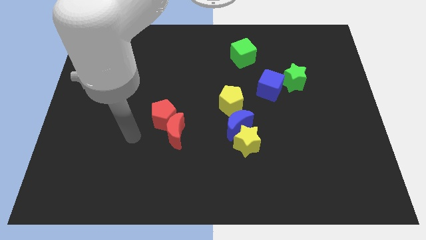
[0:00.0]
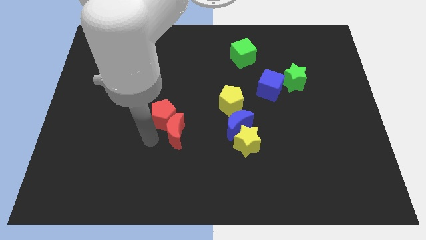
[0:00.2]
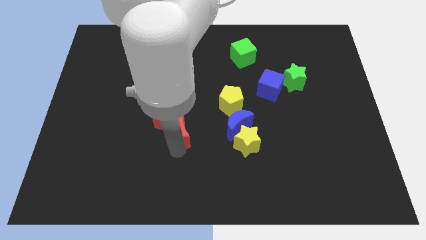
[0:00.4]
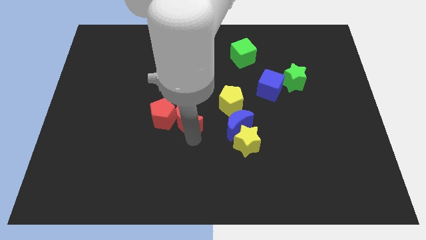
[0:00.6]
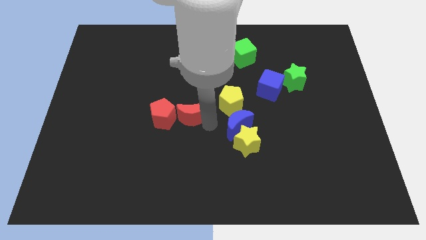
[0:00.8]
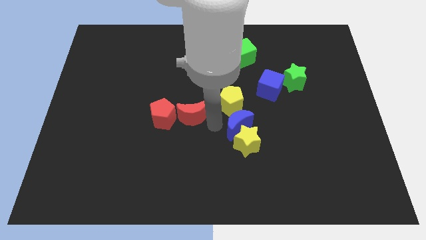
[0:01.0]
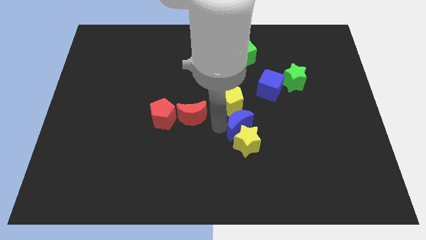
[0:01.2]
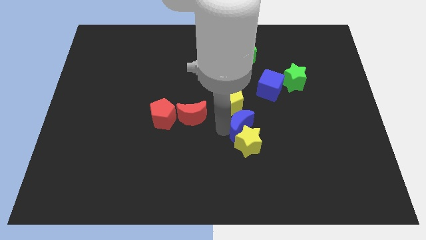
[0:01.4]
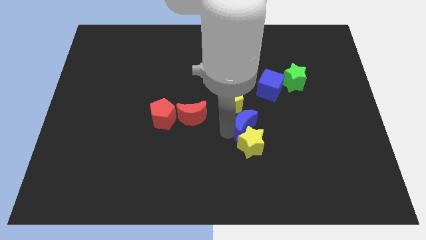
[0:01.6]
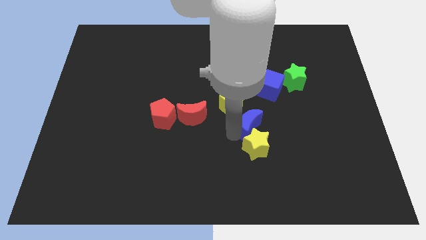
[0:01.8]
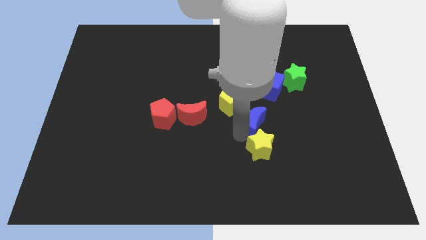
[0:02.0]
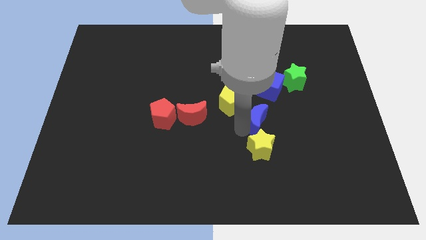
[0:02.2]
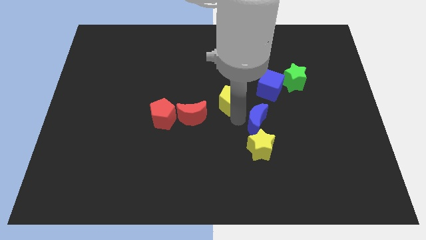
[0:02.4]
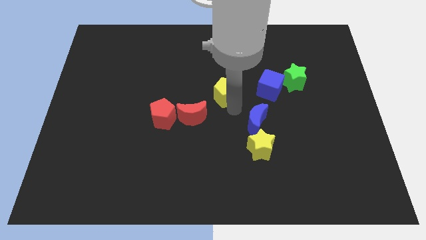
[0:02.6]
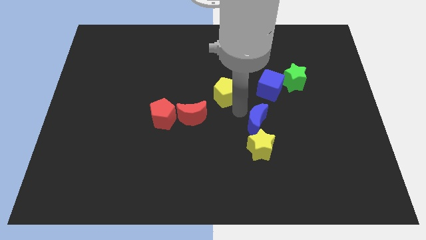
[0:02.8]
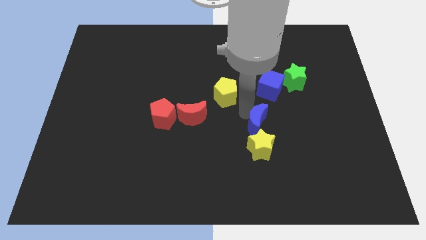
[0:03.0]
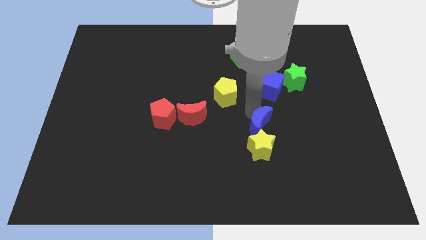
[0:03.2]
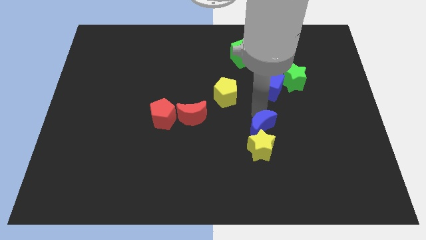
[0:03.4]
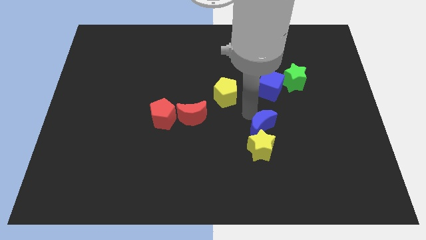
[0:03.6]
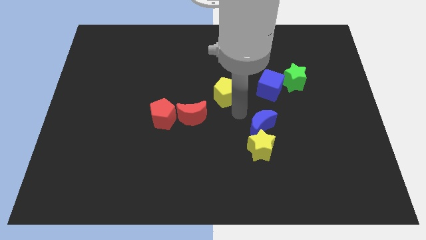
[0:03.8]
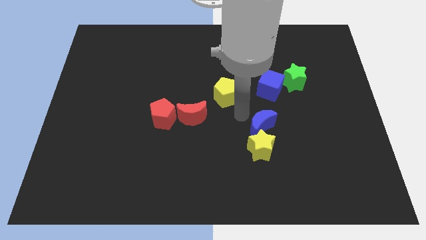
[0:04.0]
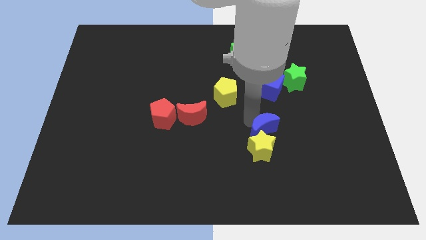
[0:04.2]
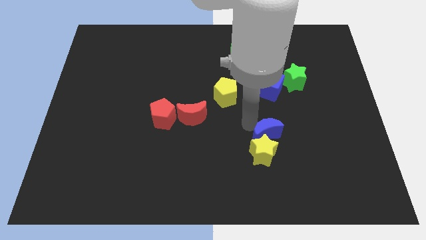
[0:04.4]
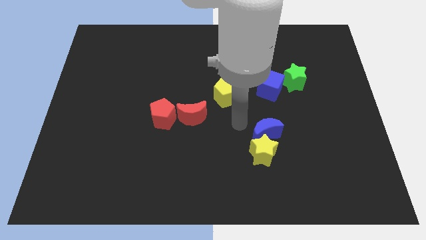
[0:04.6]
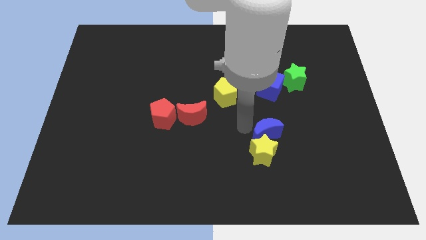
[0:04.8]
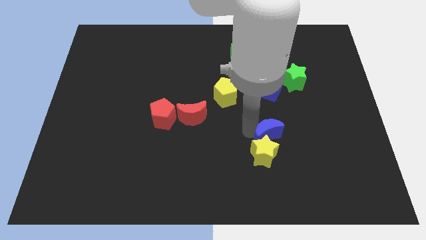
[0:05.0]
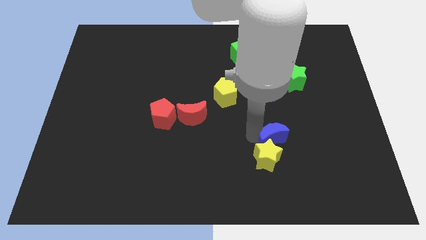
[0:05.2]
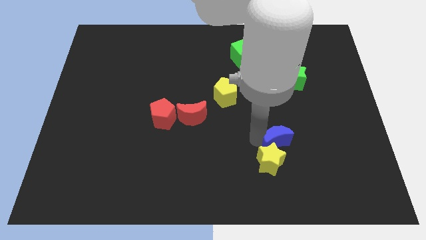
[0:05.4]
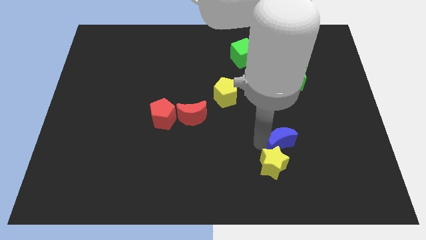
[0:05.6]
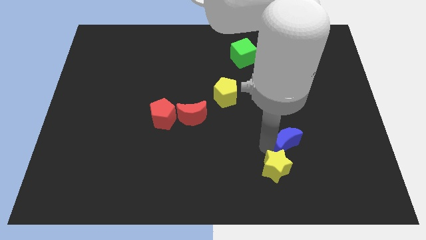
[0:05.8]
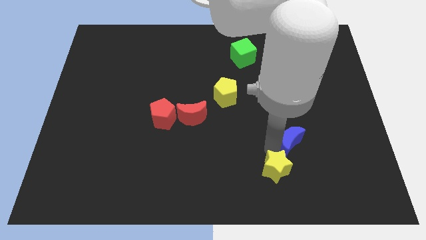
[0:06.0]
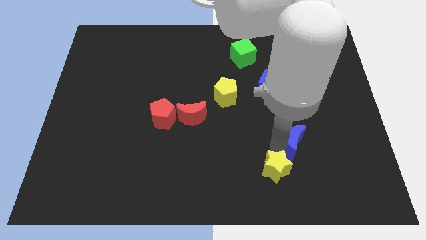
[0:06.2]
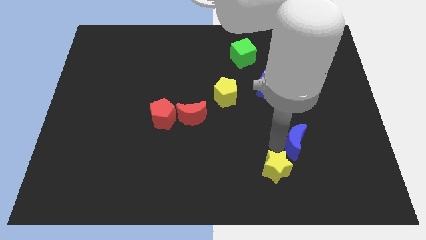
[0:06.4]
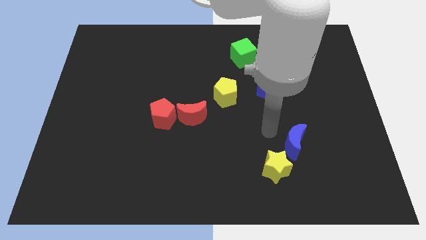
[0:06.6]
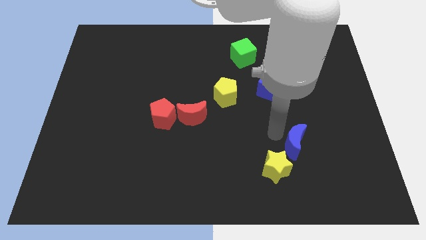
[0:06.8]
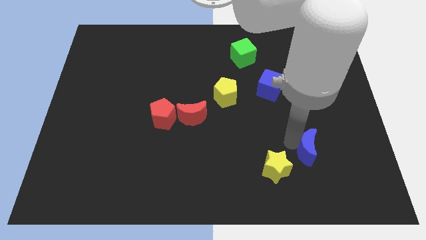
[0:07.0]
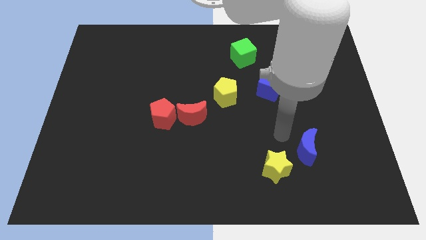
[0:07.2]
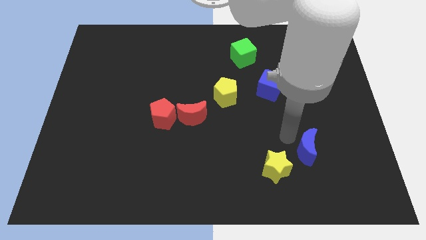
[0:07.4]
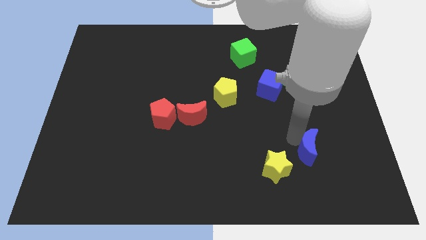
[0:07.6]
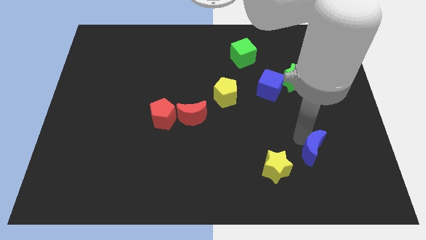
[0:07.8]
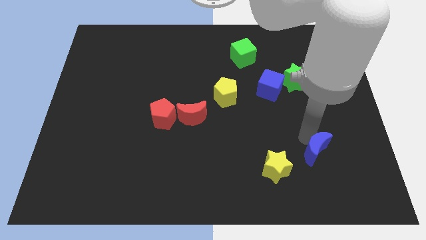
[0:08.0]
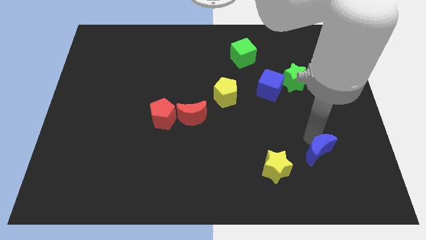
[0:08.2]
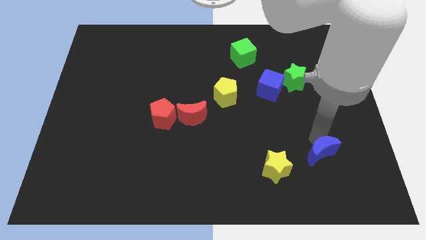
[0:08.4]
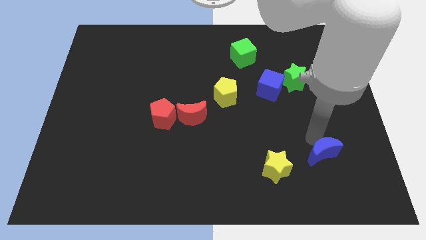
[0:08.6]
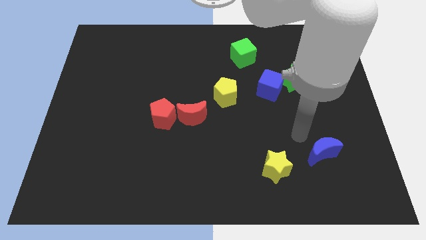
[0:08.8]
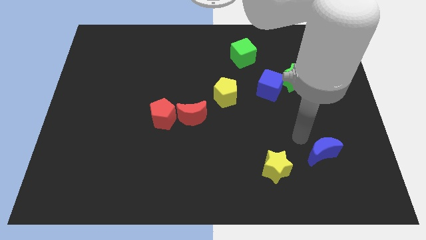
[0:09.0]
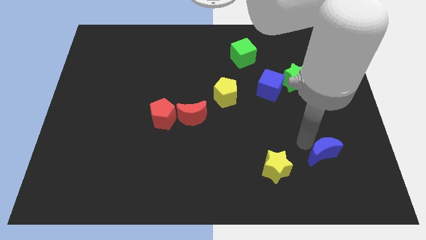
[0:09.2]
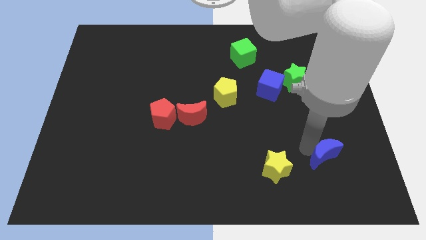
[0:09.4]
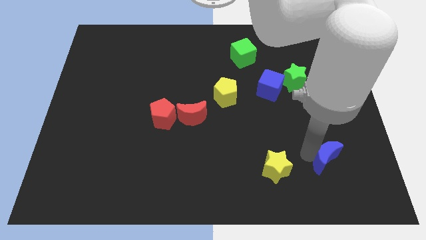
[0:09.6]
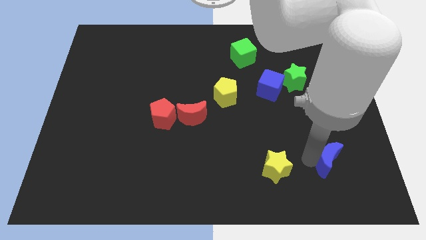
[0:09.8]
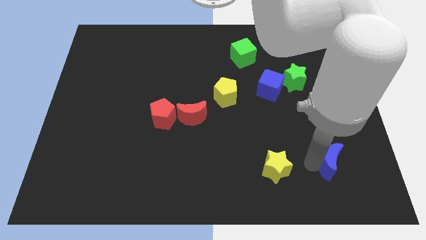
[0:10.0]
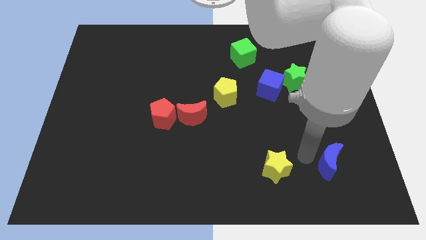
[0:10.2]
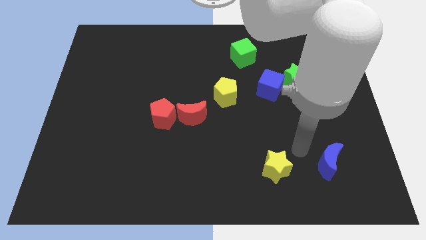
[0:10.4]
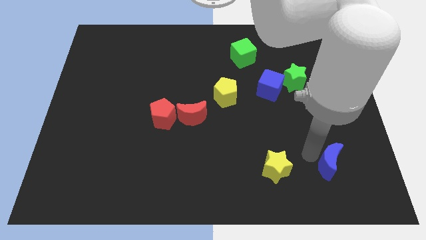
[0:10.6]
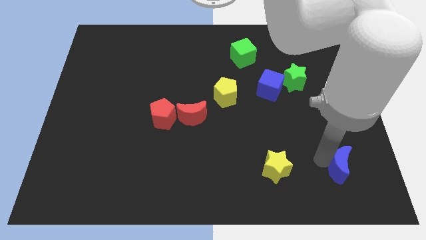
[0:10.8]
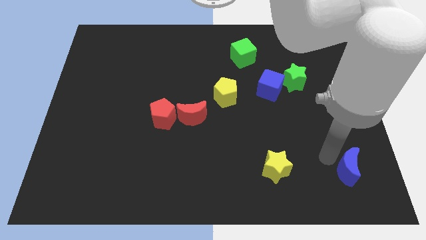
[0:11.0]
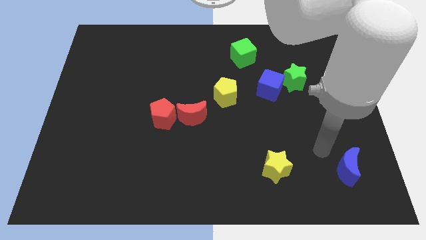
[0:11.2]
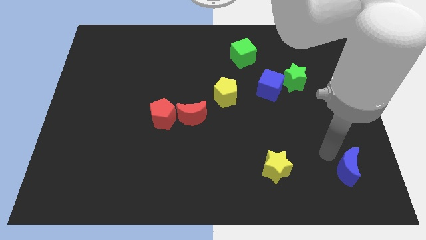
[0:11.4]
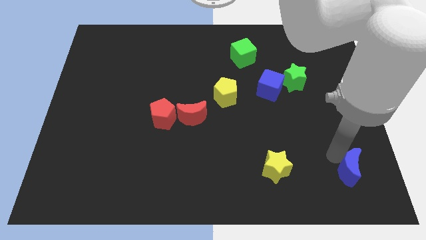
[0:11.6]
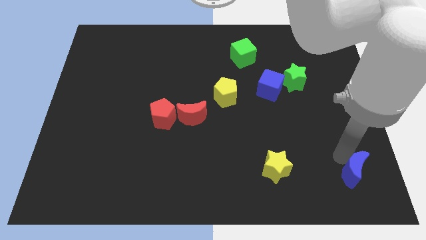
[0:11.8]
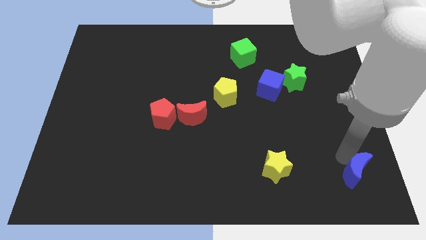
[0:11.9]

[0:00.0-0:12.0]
move the blue moon to the bottom right of the board

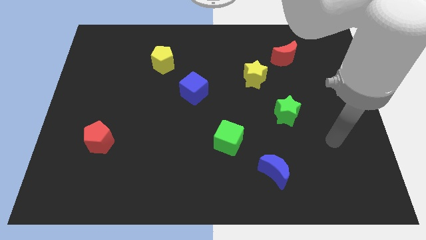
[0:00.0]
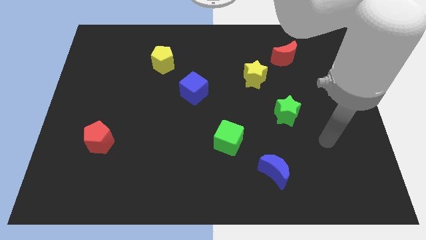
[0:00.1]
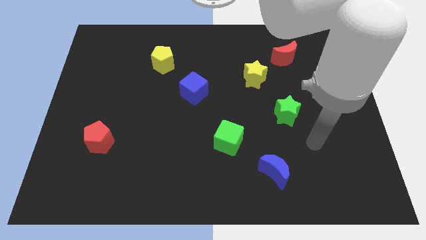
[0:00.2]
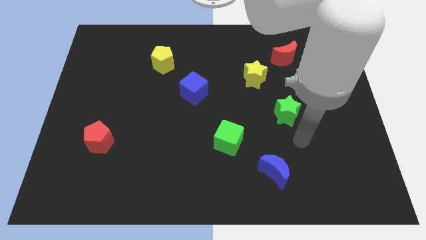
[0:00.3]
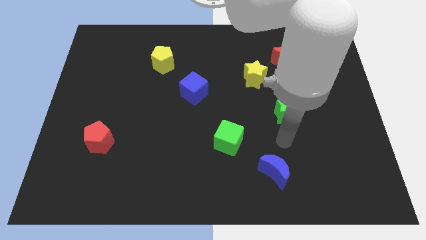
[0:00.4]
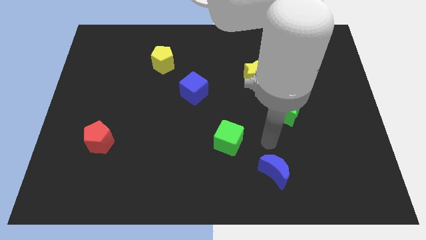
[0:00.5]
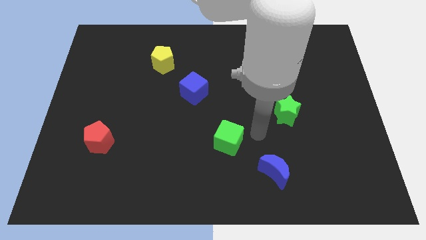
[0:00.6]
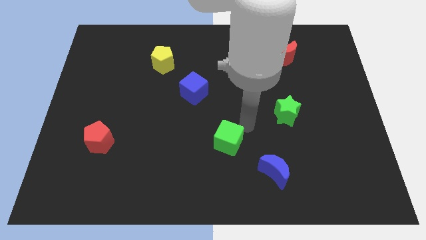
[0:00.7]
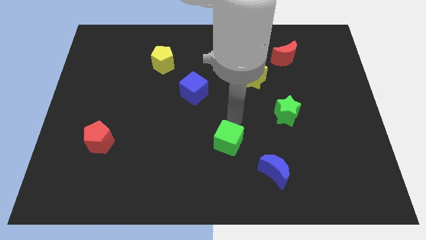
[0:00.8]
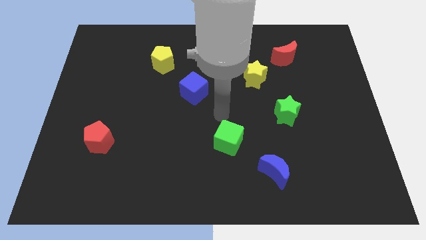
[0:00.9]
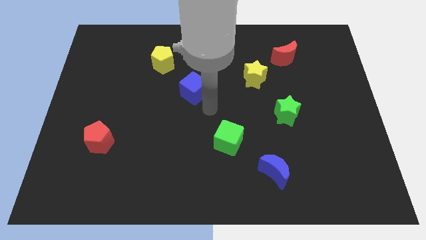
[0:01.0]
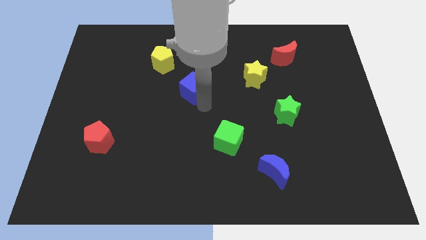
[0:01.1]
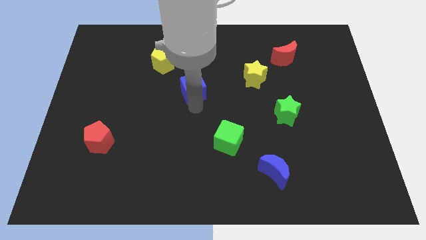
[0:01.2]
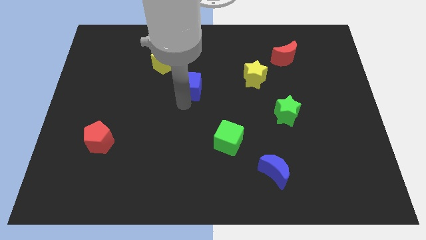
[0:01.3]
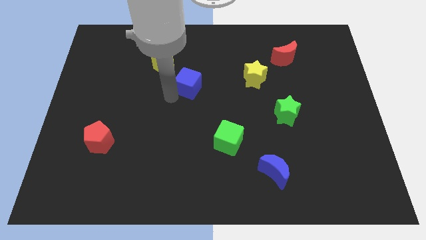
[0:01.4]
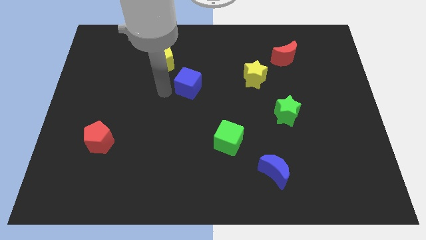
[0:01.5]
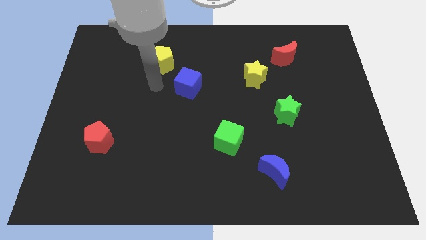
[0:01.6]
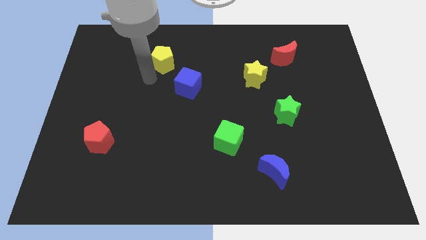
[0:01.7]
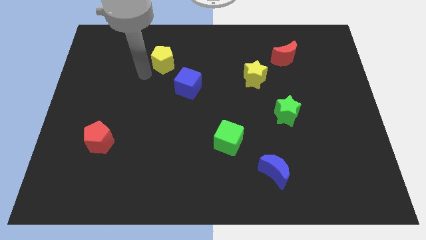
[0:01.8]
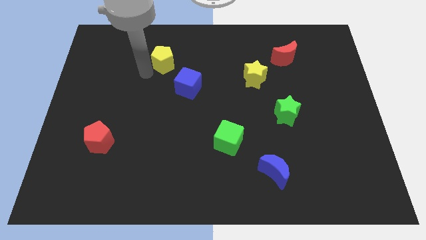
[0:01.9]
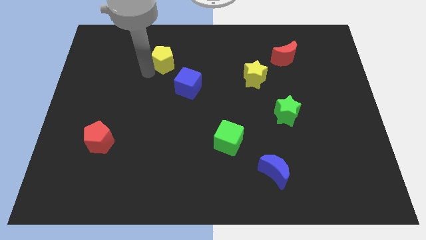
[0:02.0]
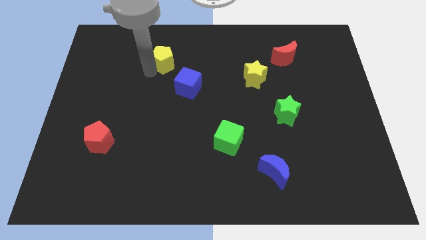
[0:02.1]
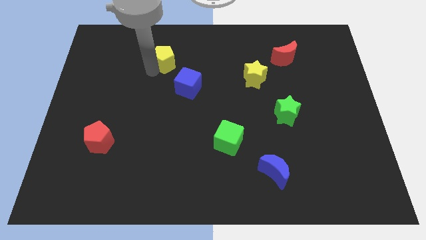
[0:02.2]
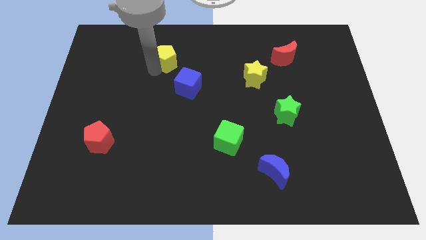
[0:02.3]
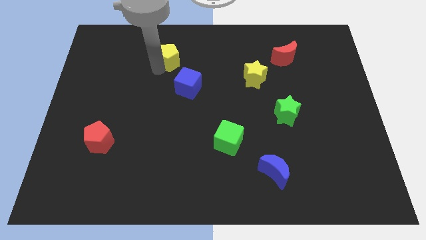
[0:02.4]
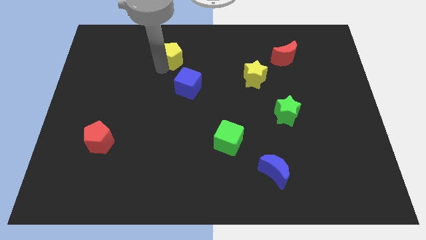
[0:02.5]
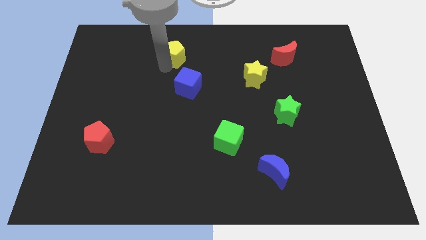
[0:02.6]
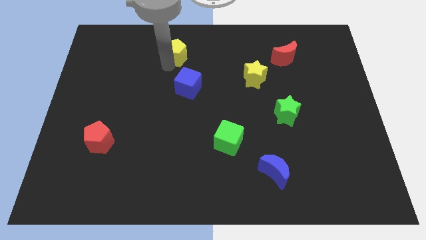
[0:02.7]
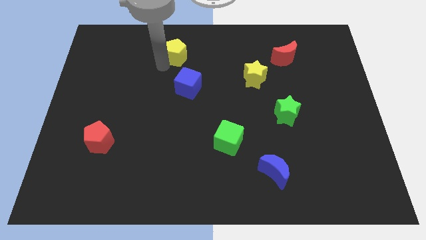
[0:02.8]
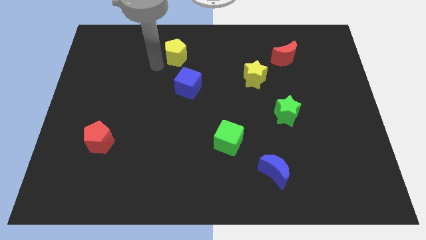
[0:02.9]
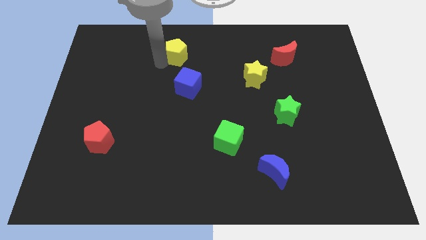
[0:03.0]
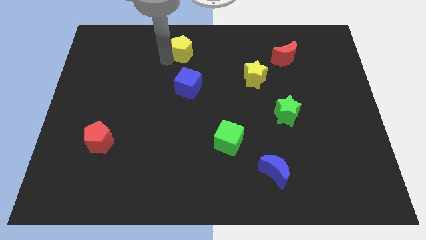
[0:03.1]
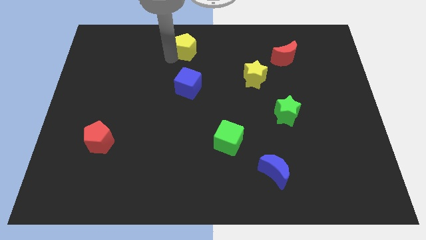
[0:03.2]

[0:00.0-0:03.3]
slide the yellow pentagon to the towards your base
